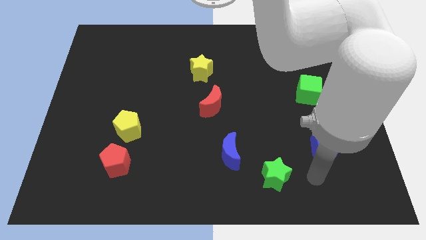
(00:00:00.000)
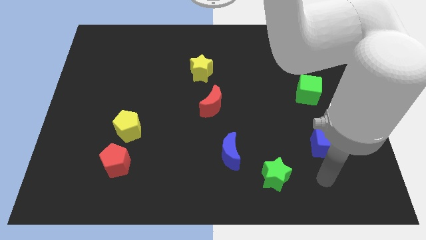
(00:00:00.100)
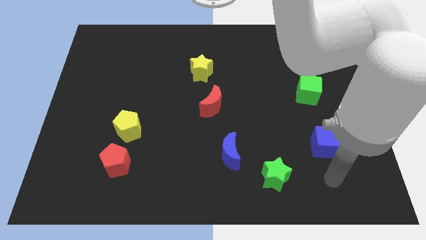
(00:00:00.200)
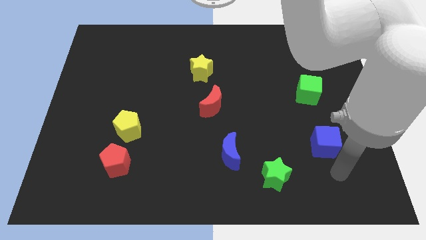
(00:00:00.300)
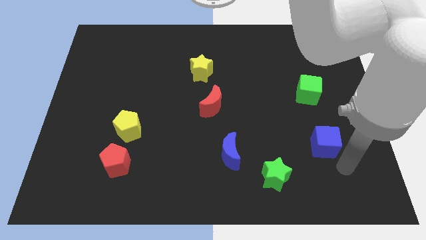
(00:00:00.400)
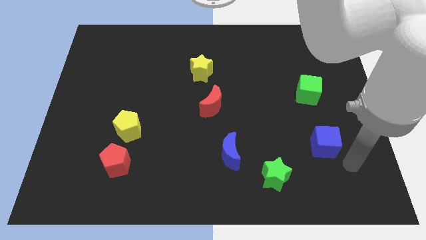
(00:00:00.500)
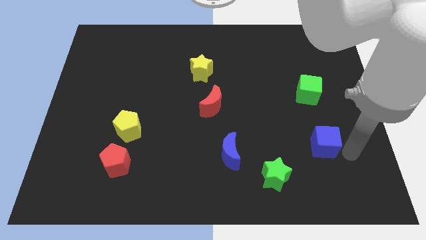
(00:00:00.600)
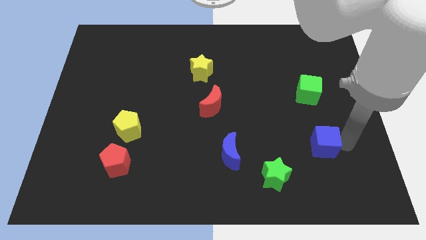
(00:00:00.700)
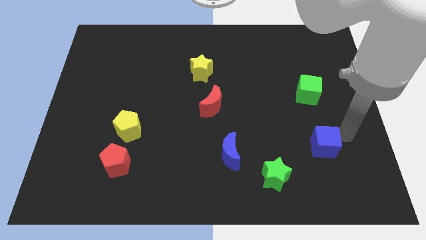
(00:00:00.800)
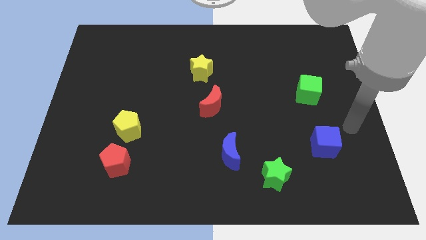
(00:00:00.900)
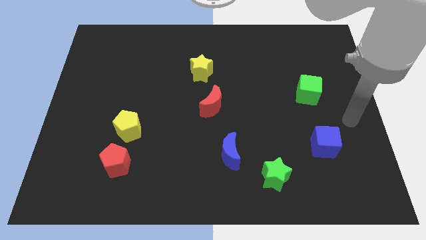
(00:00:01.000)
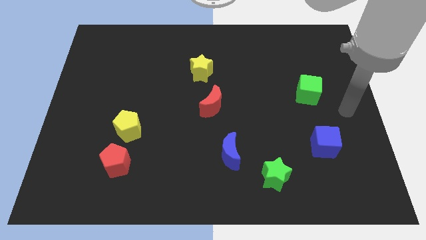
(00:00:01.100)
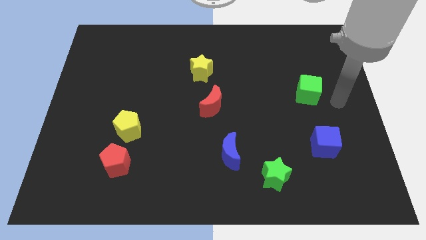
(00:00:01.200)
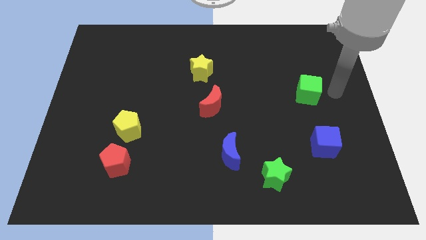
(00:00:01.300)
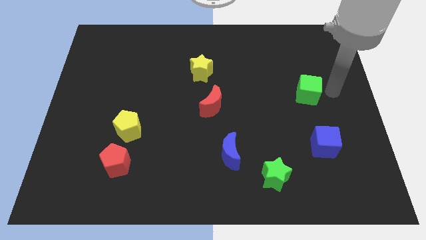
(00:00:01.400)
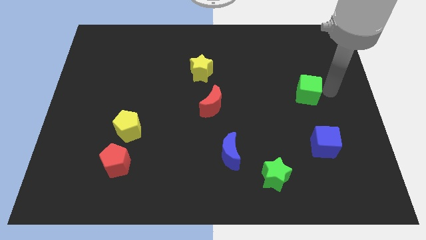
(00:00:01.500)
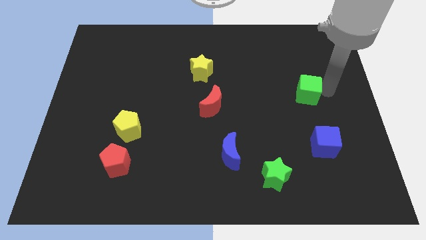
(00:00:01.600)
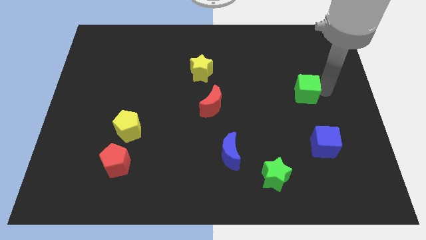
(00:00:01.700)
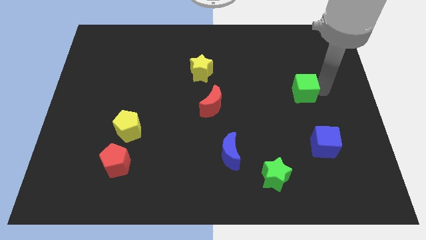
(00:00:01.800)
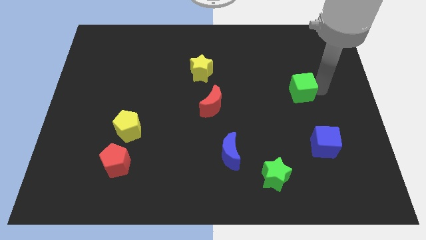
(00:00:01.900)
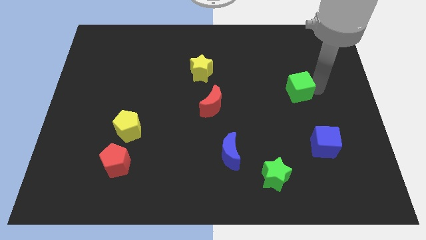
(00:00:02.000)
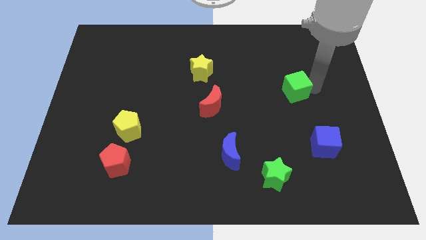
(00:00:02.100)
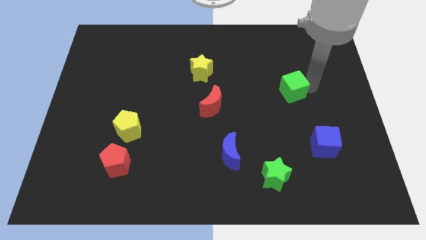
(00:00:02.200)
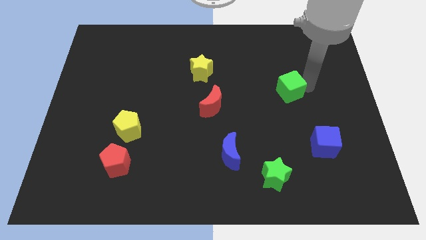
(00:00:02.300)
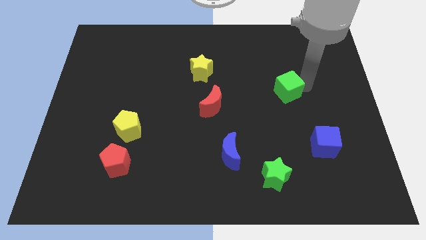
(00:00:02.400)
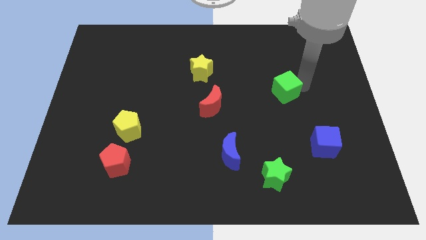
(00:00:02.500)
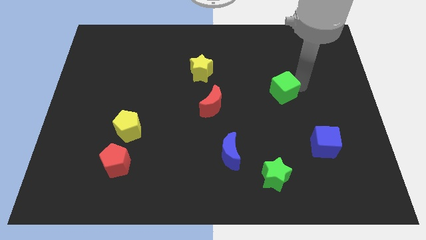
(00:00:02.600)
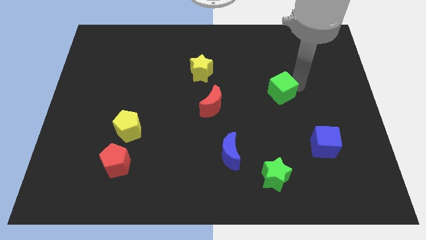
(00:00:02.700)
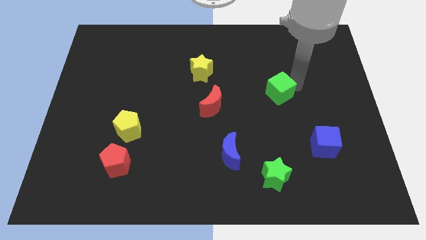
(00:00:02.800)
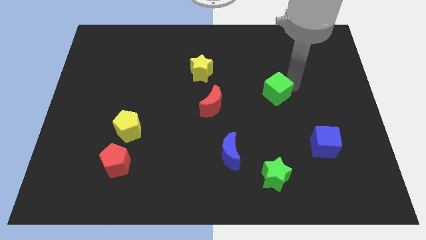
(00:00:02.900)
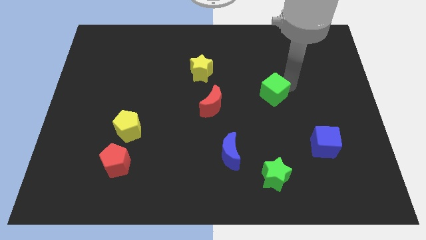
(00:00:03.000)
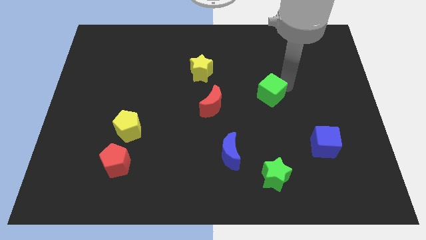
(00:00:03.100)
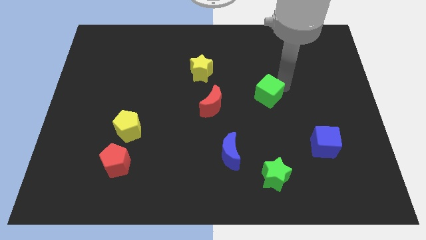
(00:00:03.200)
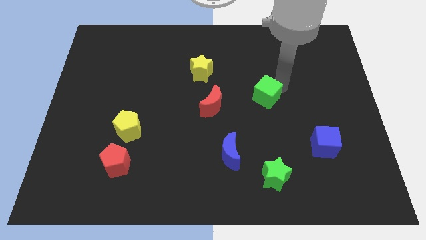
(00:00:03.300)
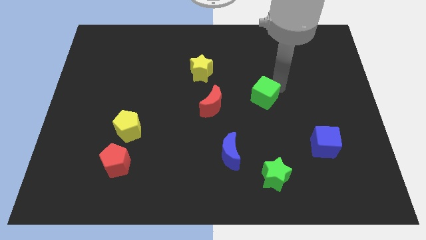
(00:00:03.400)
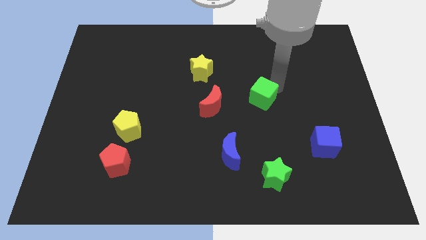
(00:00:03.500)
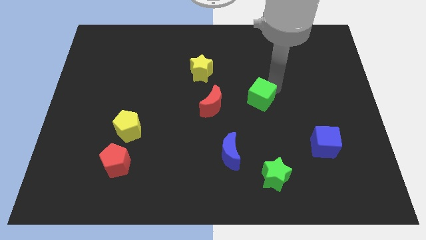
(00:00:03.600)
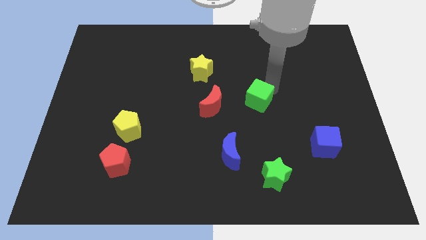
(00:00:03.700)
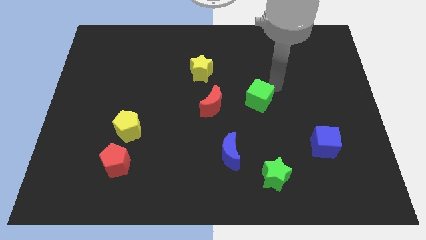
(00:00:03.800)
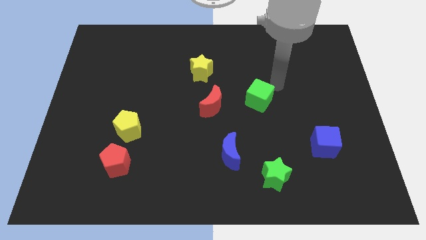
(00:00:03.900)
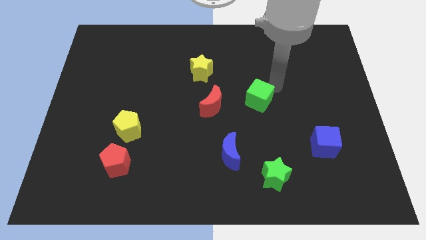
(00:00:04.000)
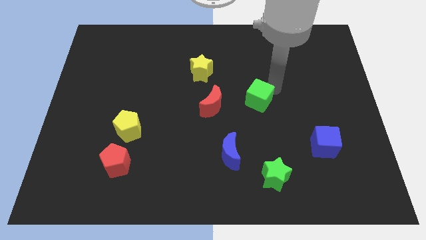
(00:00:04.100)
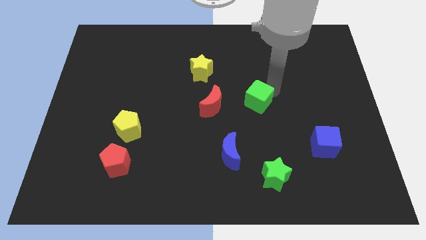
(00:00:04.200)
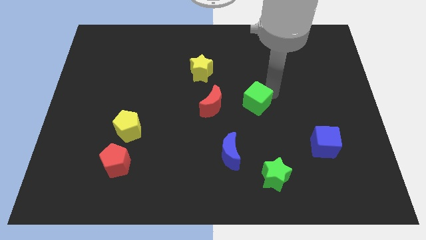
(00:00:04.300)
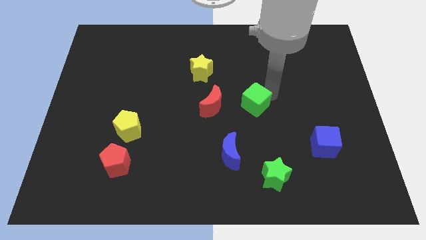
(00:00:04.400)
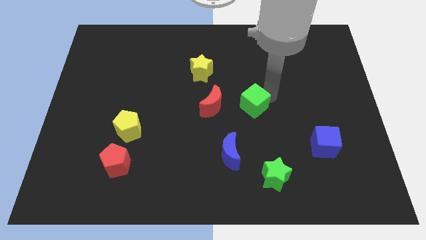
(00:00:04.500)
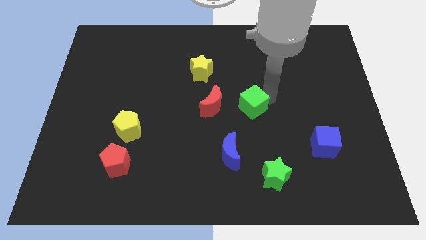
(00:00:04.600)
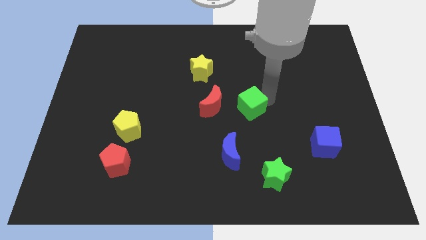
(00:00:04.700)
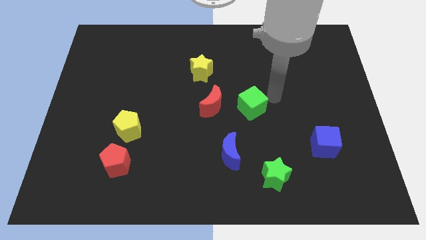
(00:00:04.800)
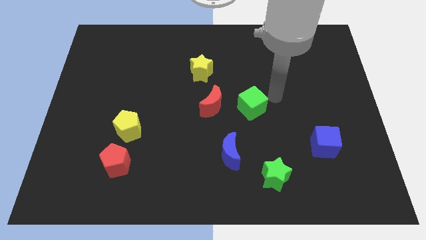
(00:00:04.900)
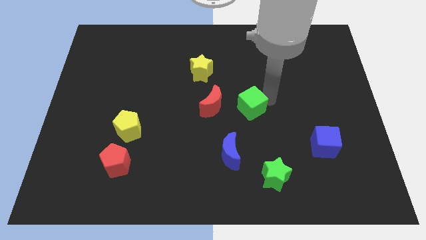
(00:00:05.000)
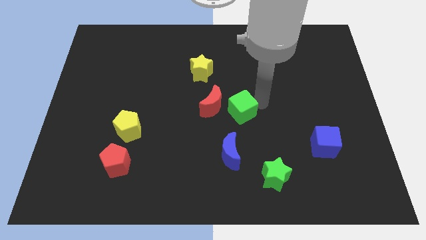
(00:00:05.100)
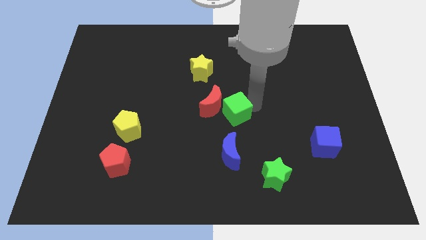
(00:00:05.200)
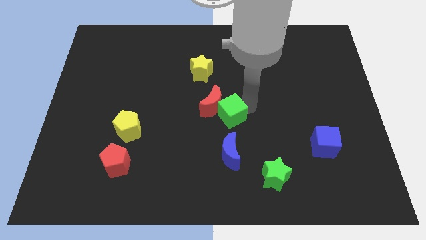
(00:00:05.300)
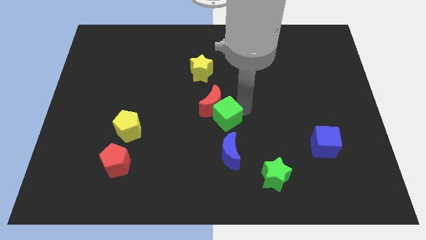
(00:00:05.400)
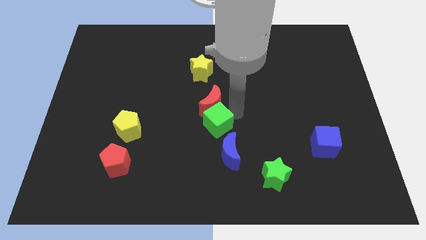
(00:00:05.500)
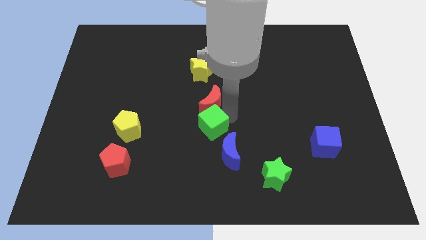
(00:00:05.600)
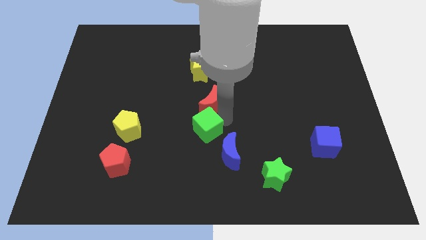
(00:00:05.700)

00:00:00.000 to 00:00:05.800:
move the green cube downwards and then to the left

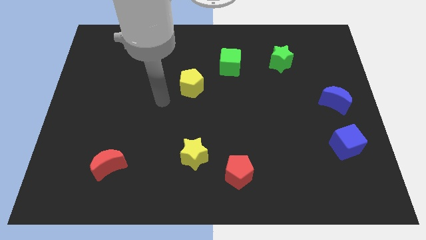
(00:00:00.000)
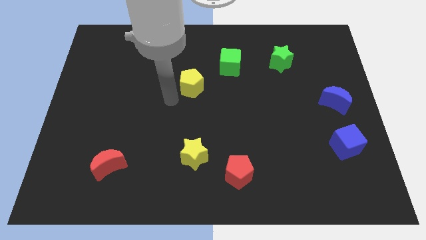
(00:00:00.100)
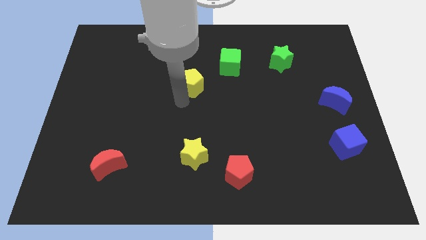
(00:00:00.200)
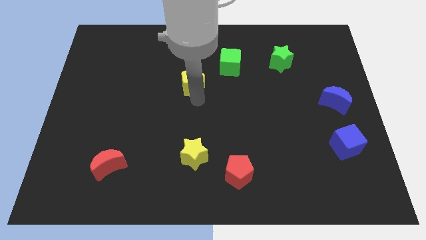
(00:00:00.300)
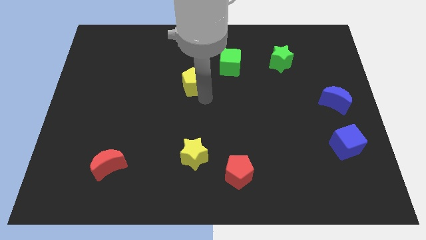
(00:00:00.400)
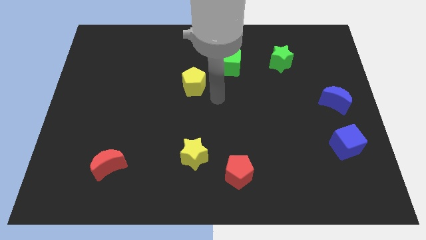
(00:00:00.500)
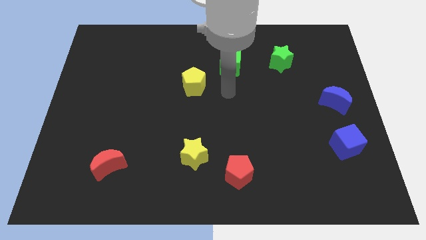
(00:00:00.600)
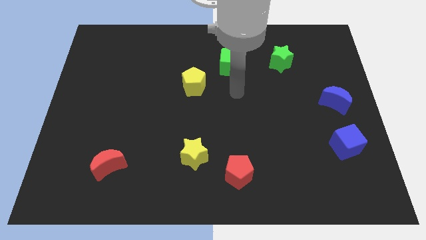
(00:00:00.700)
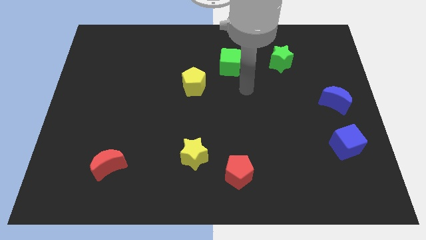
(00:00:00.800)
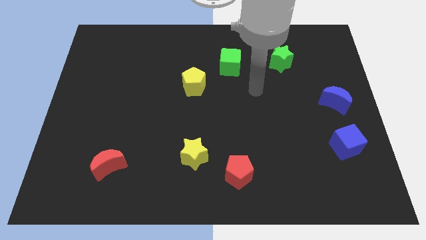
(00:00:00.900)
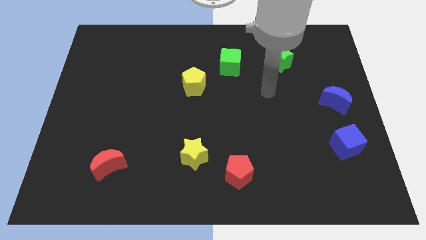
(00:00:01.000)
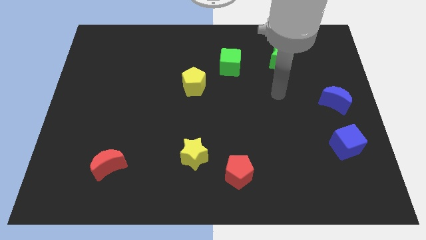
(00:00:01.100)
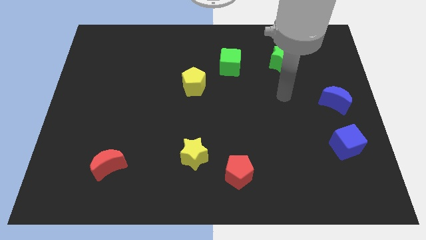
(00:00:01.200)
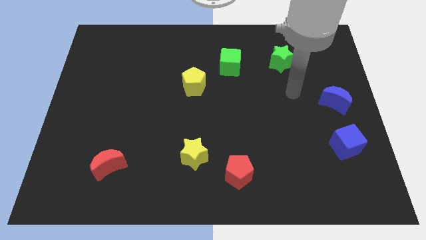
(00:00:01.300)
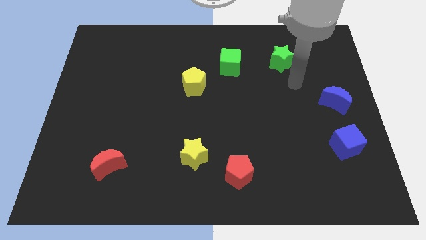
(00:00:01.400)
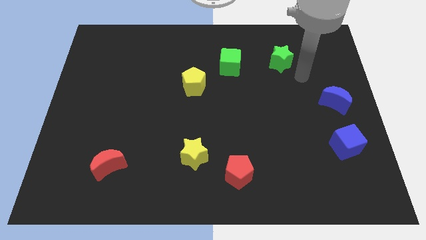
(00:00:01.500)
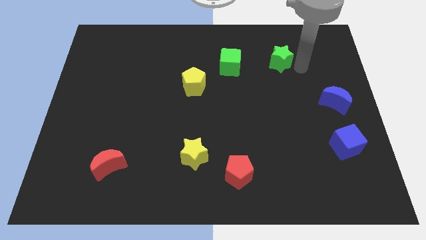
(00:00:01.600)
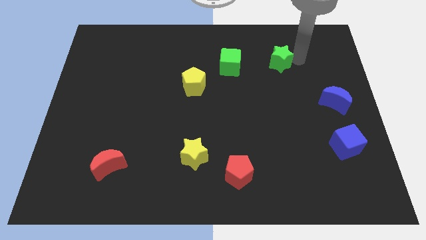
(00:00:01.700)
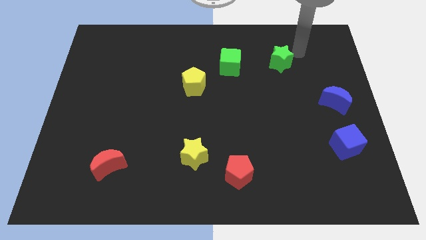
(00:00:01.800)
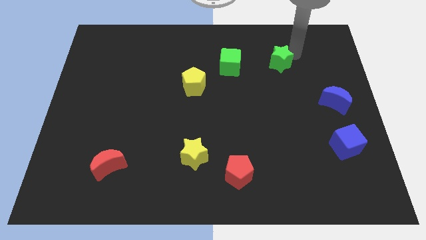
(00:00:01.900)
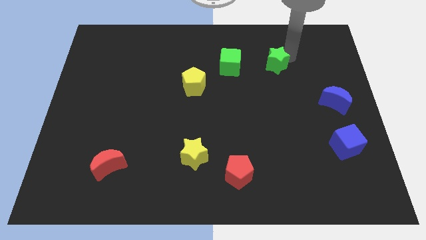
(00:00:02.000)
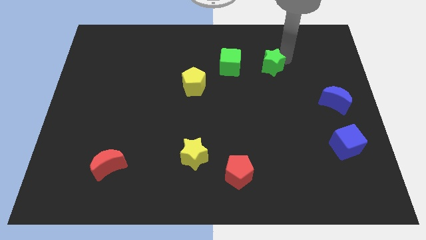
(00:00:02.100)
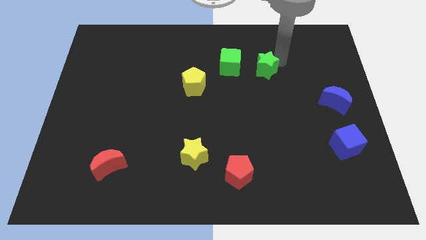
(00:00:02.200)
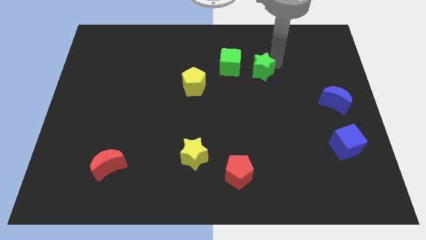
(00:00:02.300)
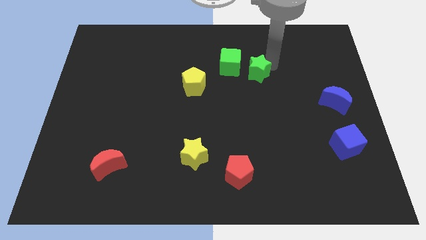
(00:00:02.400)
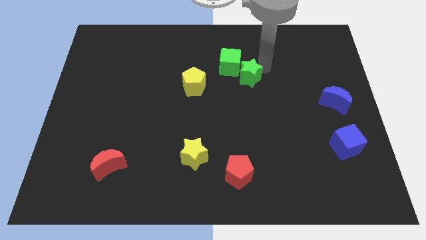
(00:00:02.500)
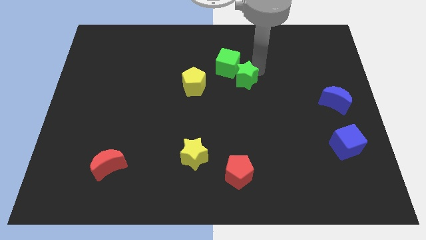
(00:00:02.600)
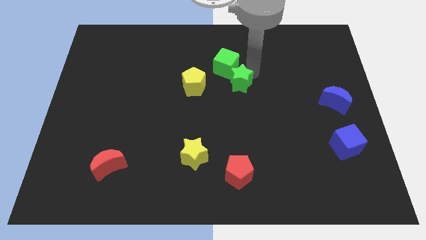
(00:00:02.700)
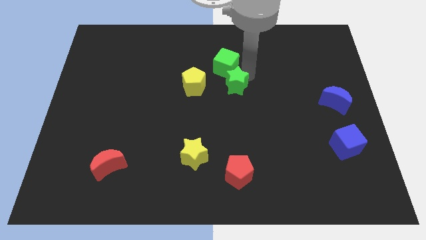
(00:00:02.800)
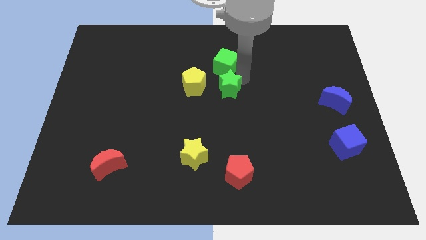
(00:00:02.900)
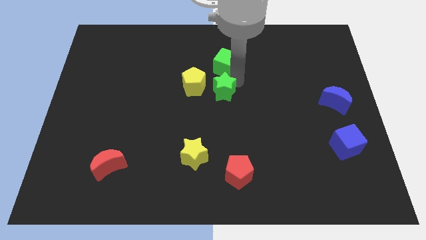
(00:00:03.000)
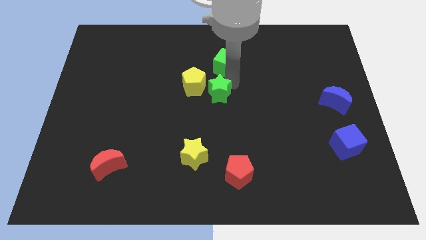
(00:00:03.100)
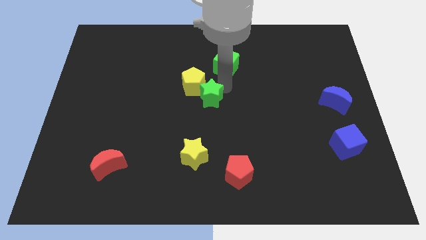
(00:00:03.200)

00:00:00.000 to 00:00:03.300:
slide the green star down and then left
